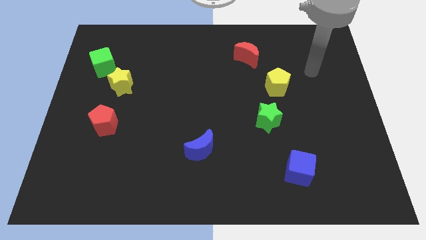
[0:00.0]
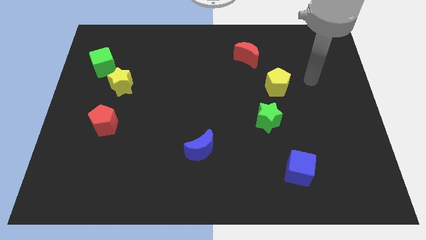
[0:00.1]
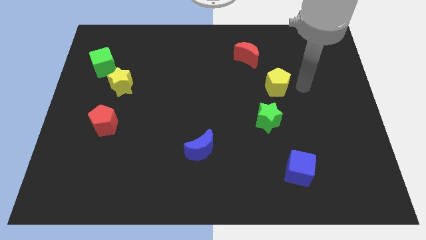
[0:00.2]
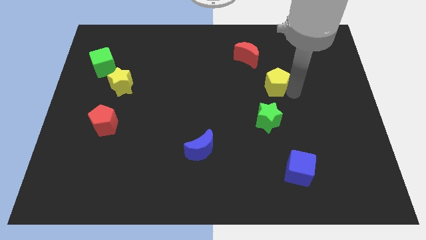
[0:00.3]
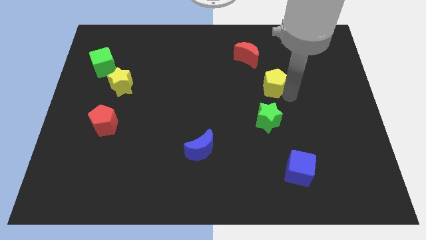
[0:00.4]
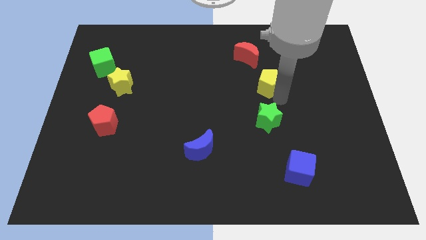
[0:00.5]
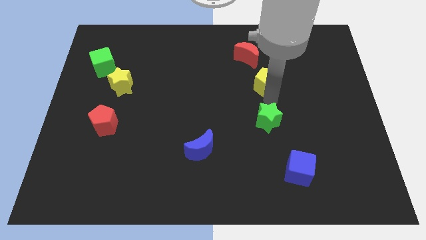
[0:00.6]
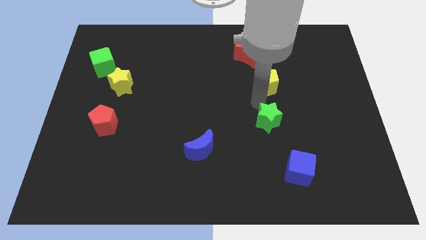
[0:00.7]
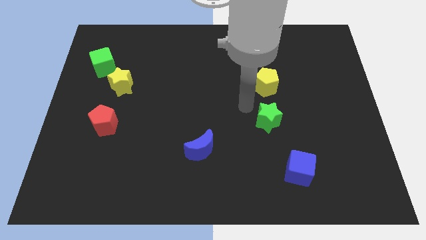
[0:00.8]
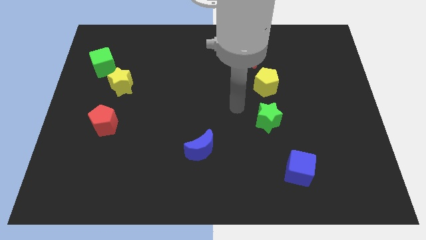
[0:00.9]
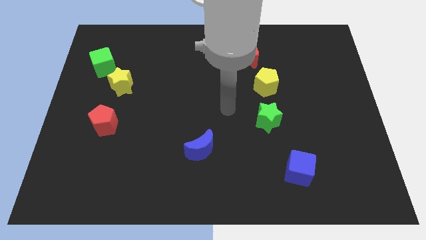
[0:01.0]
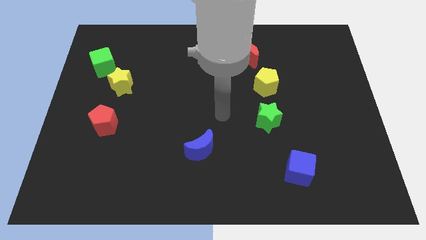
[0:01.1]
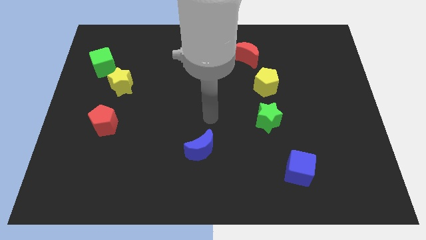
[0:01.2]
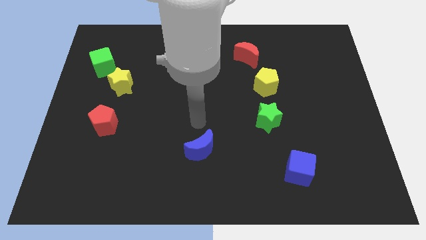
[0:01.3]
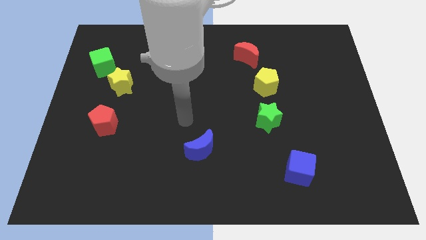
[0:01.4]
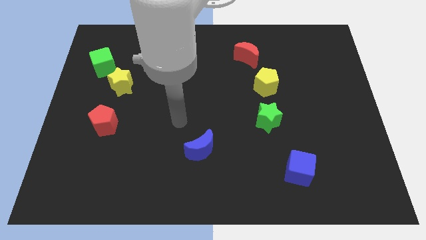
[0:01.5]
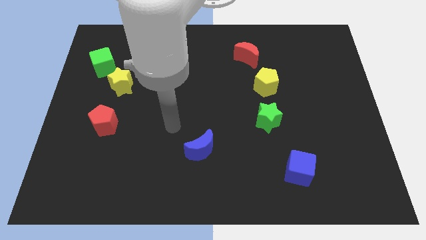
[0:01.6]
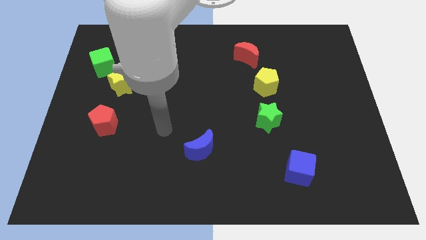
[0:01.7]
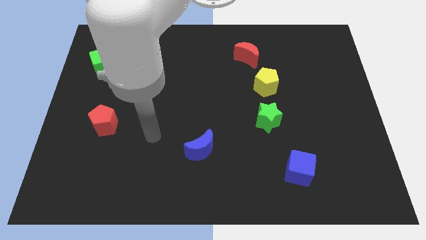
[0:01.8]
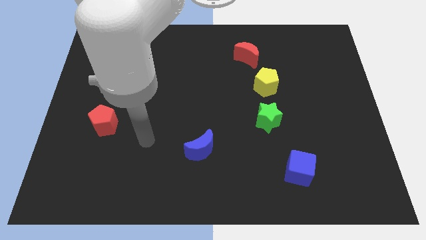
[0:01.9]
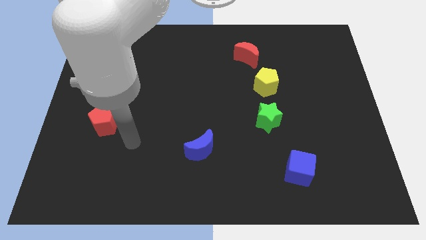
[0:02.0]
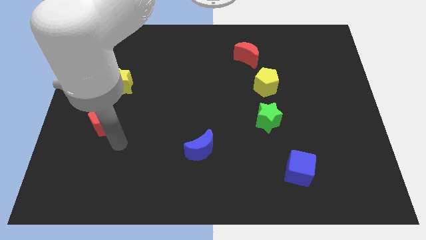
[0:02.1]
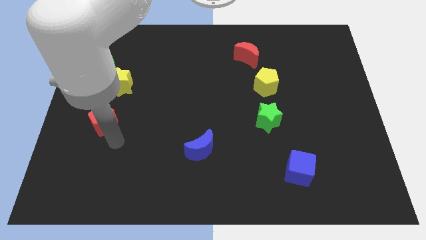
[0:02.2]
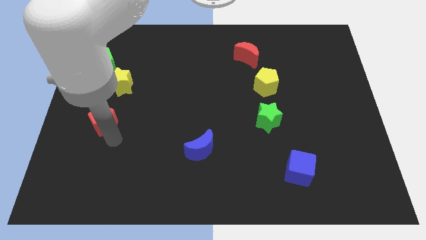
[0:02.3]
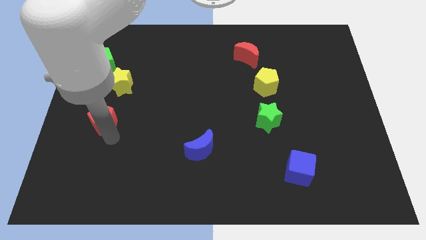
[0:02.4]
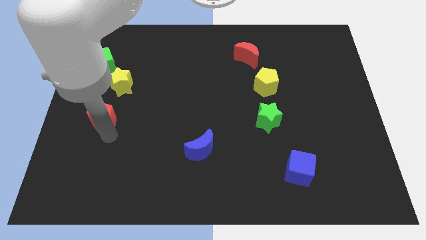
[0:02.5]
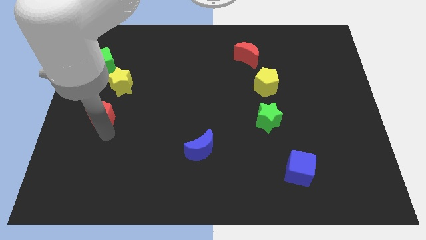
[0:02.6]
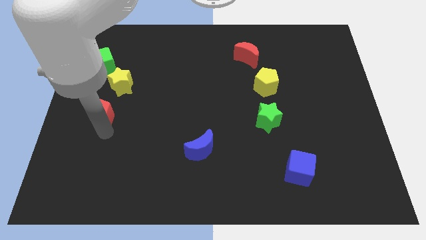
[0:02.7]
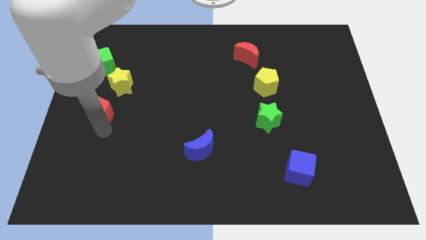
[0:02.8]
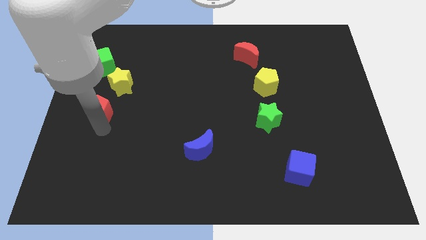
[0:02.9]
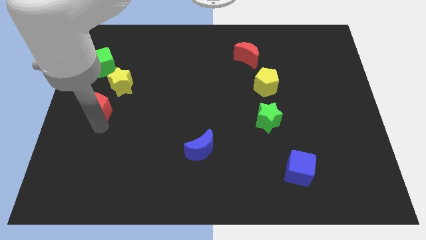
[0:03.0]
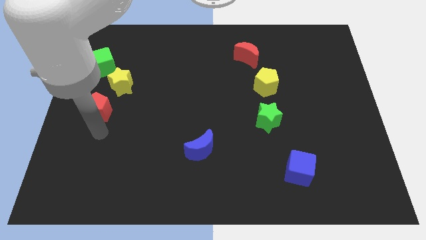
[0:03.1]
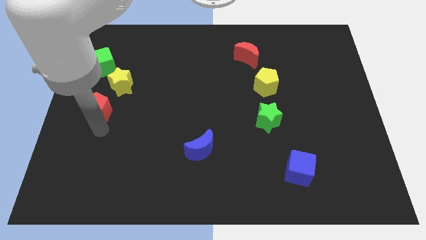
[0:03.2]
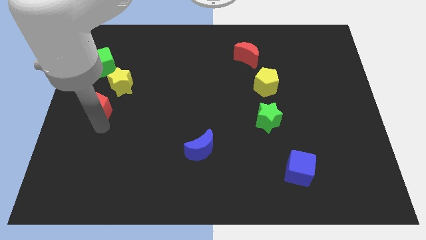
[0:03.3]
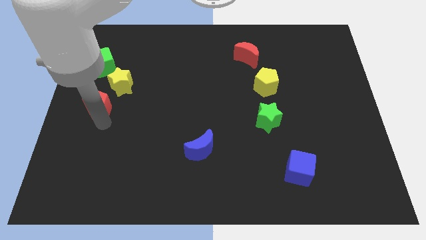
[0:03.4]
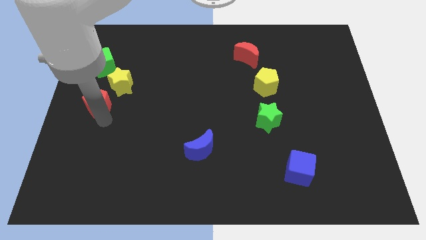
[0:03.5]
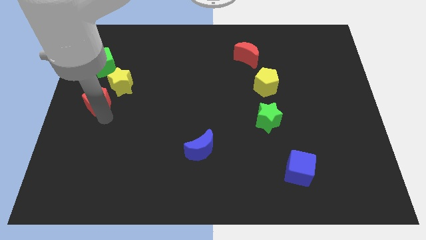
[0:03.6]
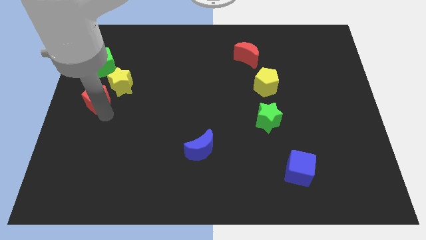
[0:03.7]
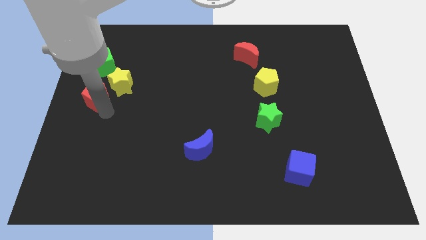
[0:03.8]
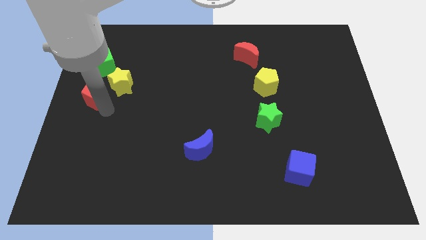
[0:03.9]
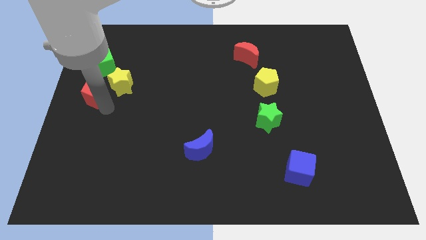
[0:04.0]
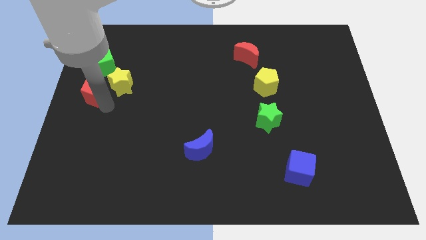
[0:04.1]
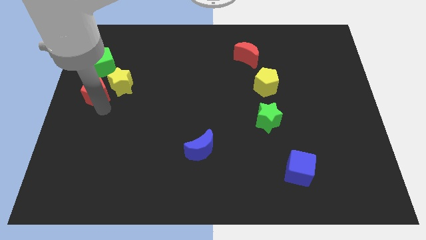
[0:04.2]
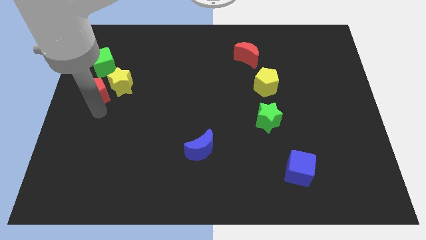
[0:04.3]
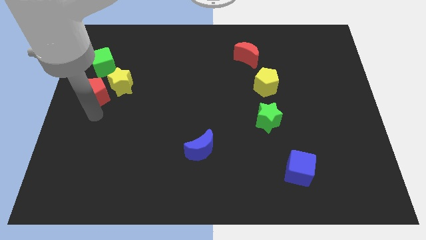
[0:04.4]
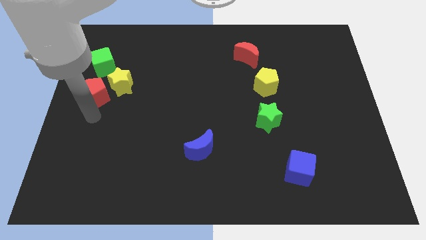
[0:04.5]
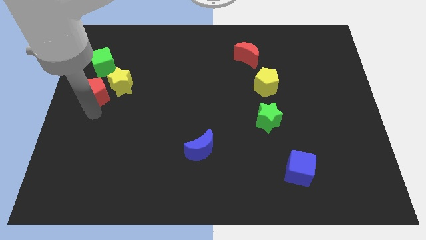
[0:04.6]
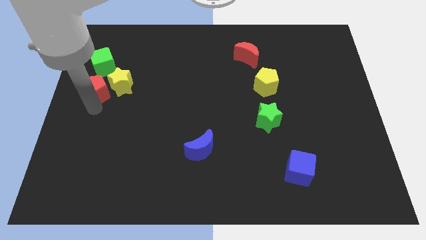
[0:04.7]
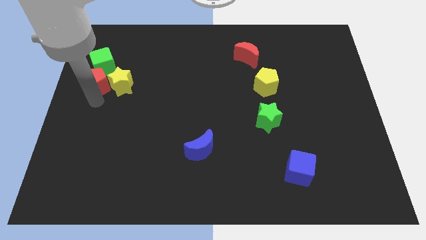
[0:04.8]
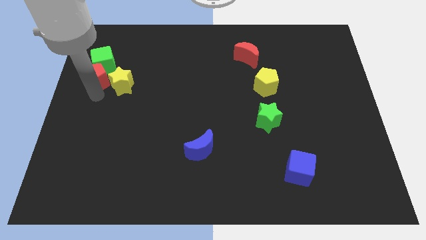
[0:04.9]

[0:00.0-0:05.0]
put the red pentagon next to the green cube

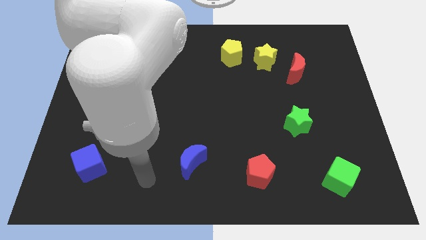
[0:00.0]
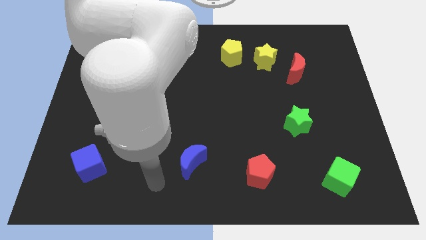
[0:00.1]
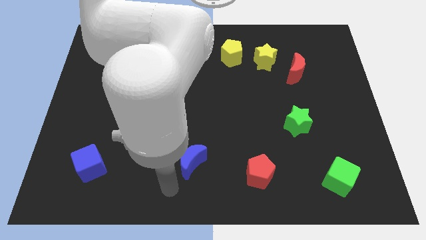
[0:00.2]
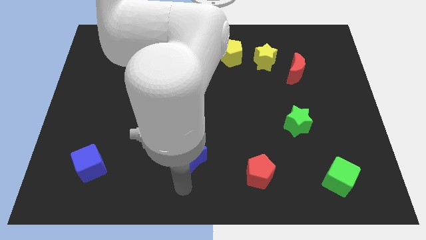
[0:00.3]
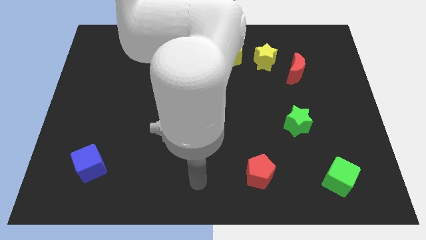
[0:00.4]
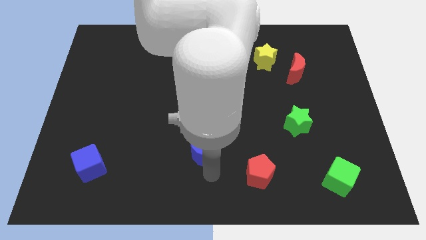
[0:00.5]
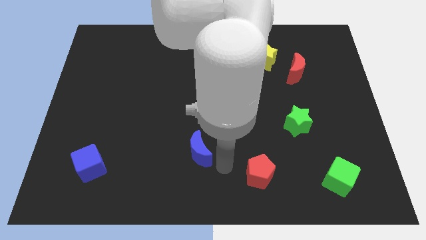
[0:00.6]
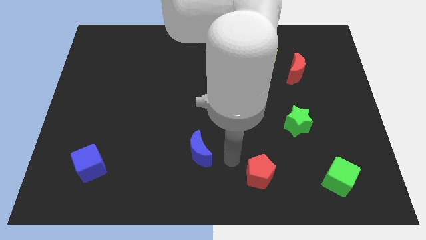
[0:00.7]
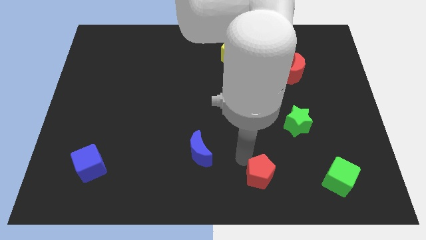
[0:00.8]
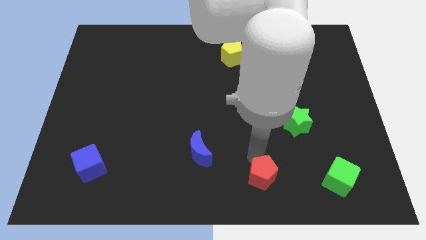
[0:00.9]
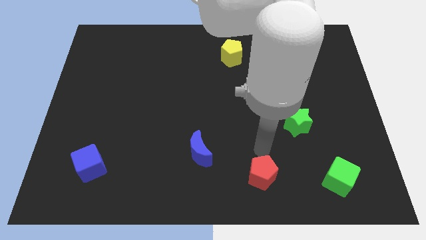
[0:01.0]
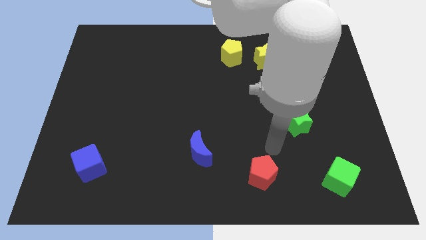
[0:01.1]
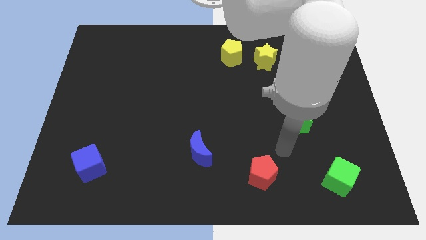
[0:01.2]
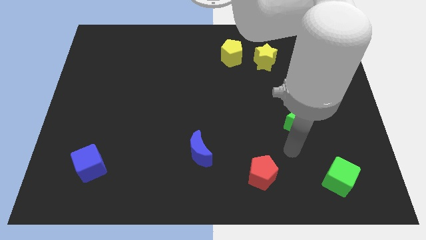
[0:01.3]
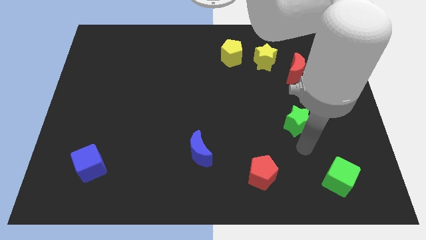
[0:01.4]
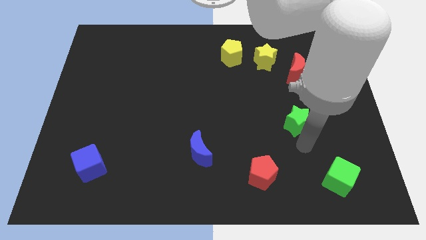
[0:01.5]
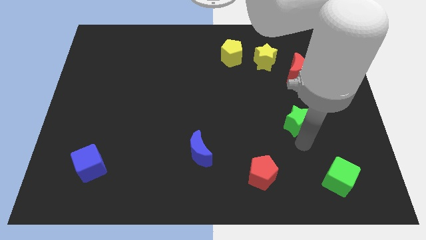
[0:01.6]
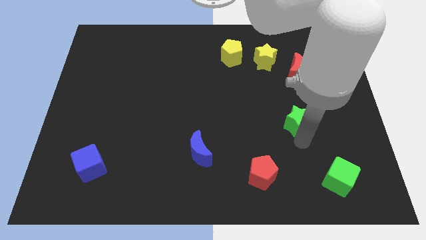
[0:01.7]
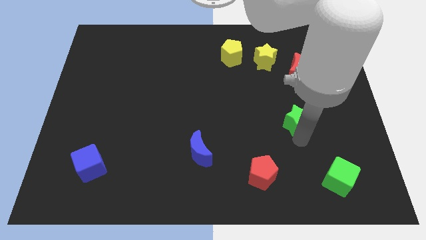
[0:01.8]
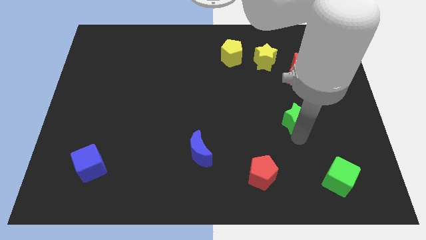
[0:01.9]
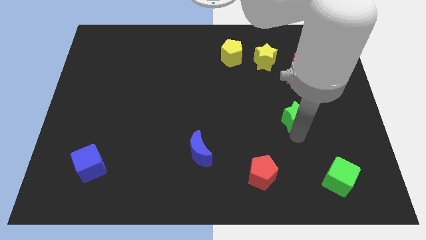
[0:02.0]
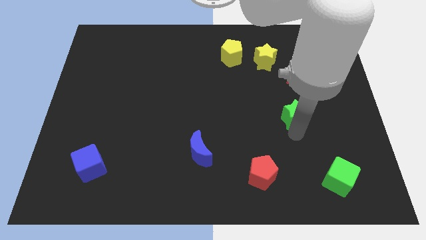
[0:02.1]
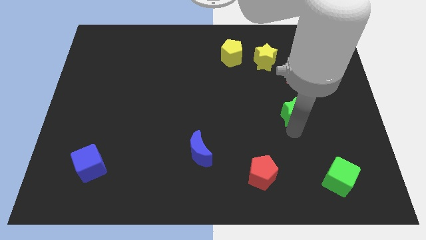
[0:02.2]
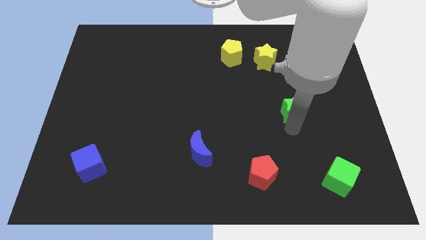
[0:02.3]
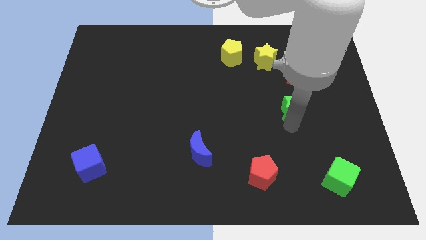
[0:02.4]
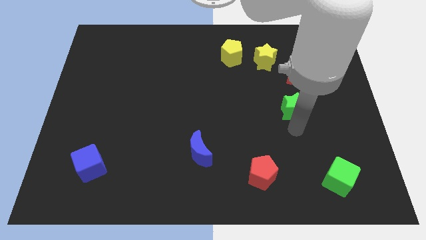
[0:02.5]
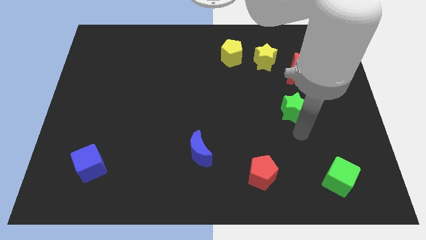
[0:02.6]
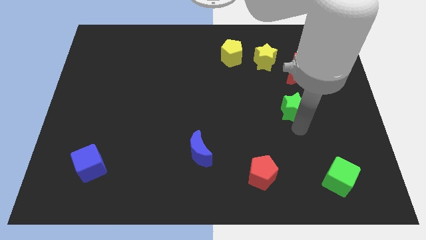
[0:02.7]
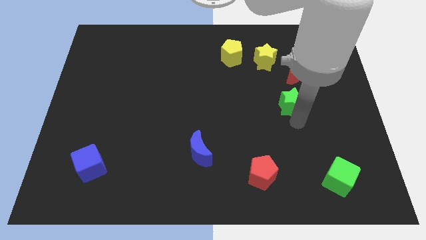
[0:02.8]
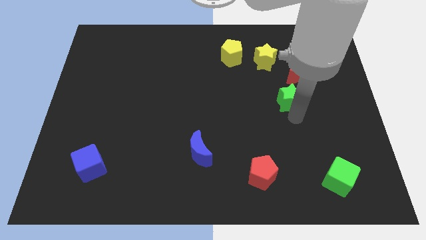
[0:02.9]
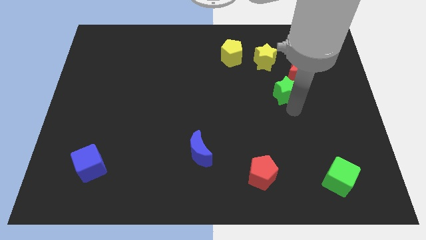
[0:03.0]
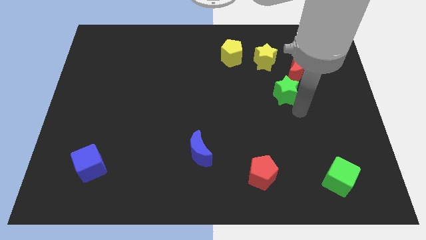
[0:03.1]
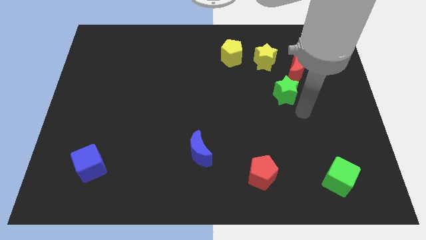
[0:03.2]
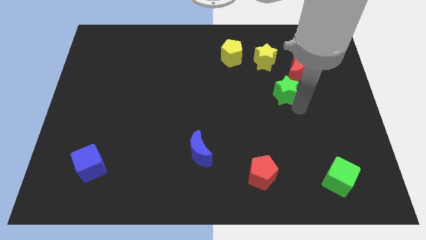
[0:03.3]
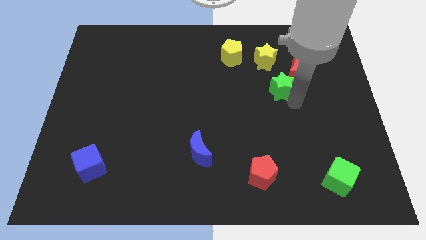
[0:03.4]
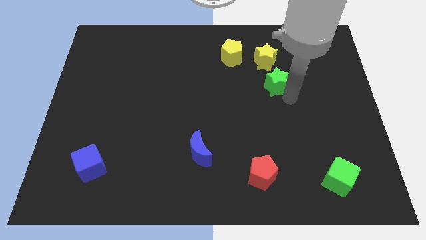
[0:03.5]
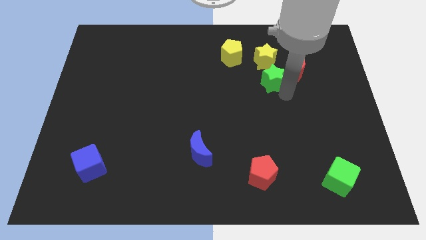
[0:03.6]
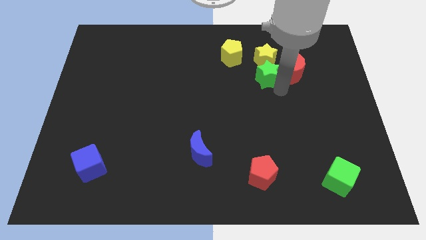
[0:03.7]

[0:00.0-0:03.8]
move the green star next to the yellow star

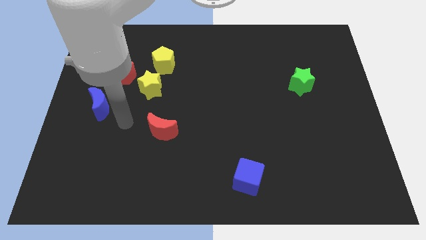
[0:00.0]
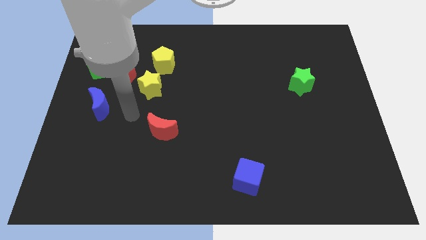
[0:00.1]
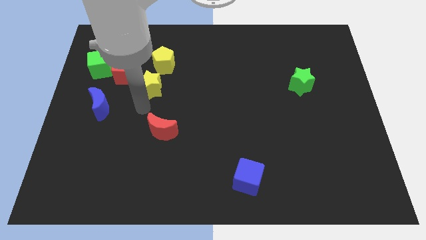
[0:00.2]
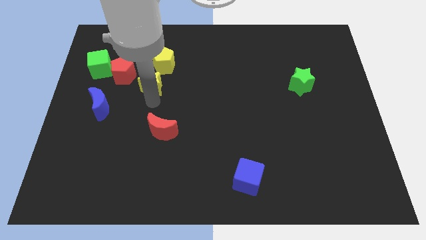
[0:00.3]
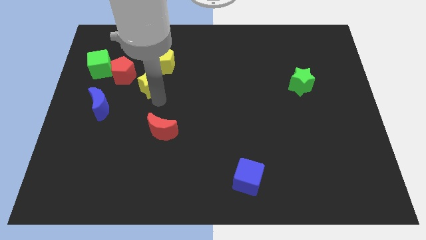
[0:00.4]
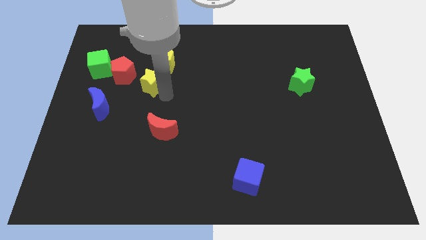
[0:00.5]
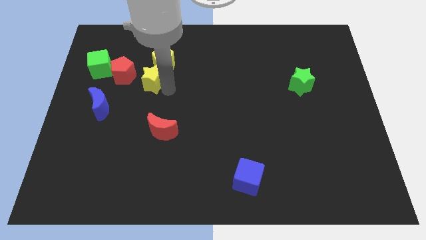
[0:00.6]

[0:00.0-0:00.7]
push the yellow pentagon next to the yellow star
